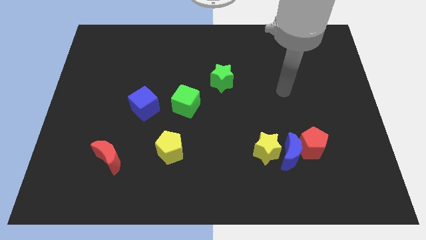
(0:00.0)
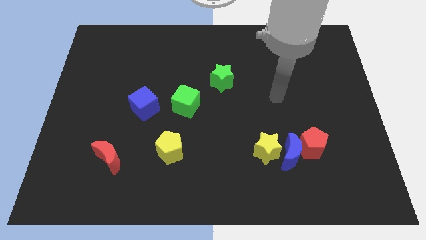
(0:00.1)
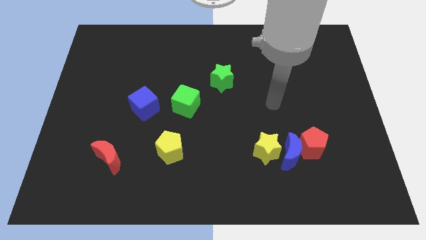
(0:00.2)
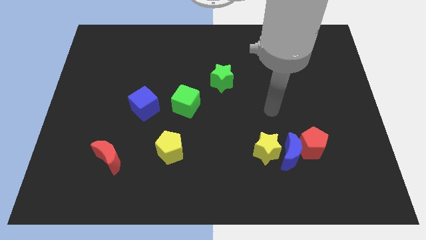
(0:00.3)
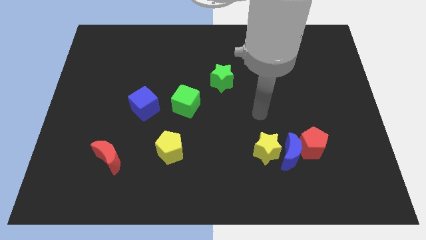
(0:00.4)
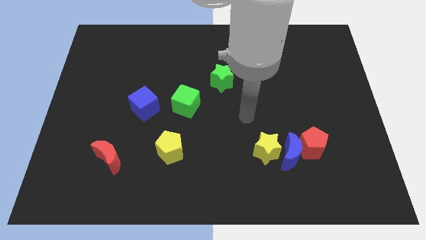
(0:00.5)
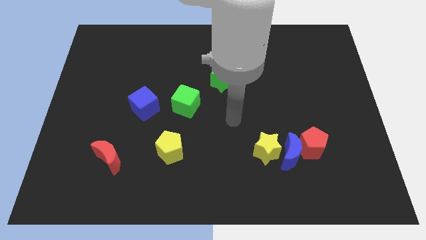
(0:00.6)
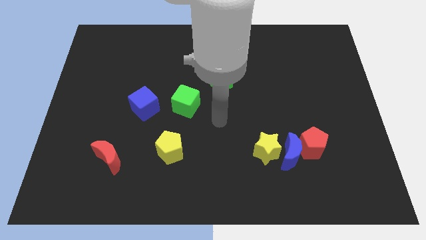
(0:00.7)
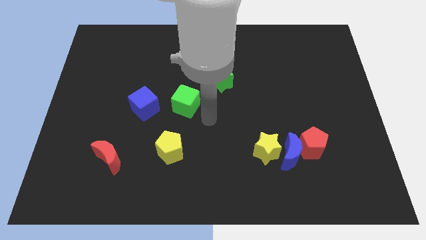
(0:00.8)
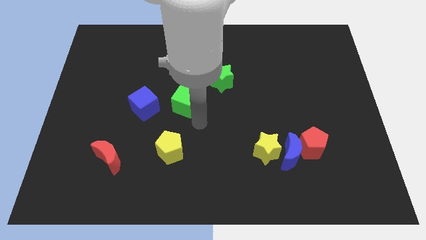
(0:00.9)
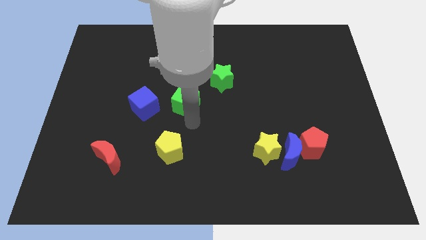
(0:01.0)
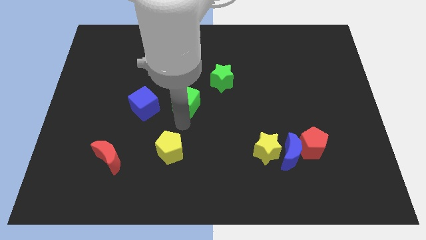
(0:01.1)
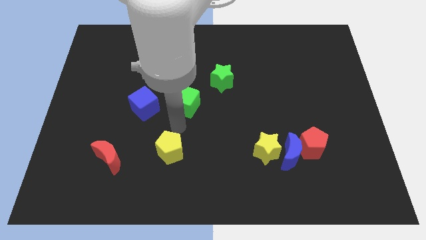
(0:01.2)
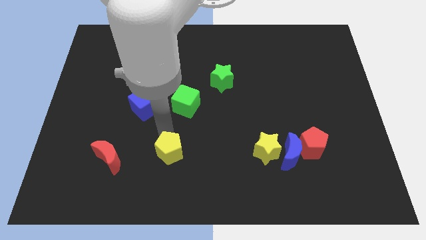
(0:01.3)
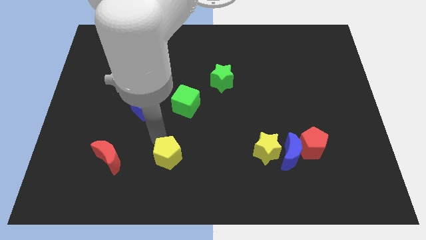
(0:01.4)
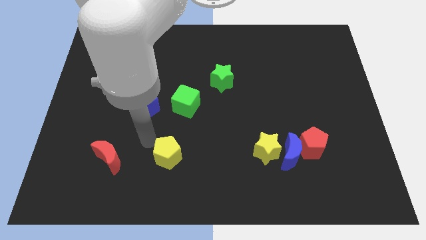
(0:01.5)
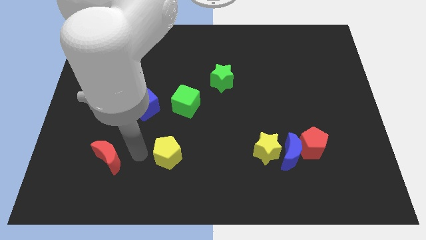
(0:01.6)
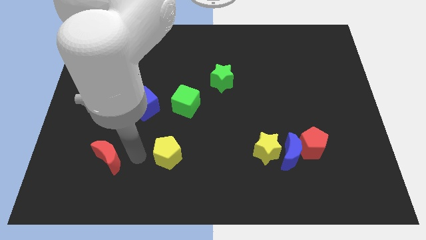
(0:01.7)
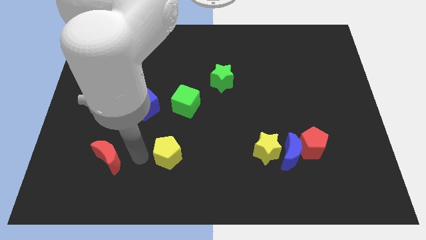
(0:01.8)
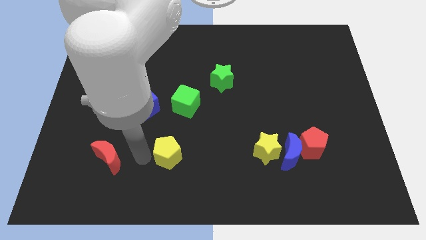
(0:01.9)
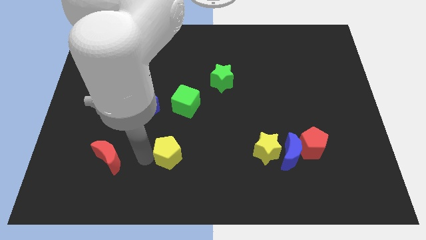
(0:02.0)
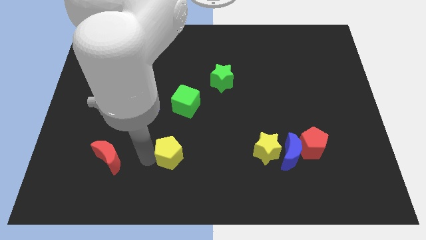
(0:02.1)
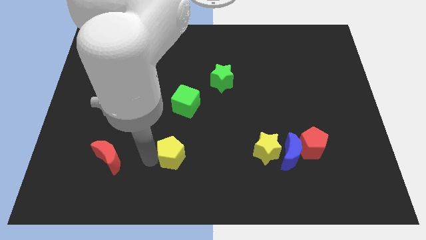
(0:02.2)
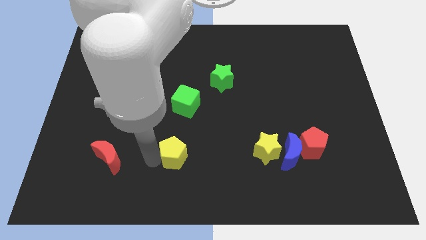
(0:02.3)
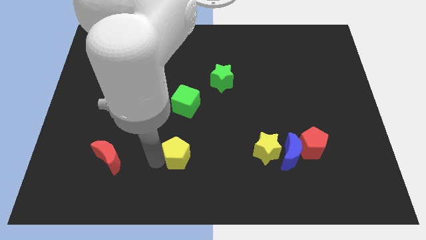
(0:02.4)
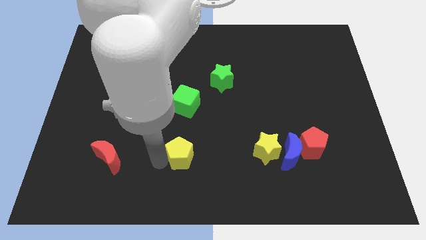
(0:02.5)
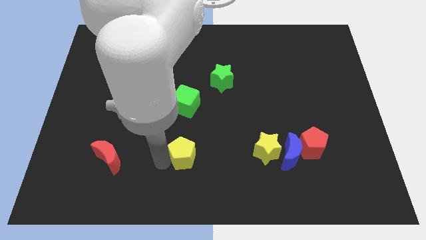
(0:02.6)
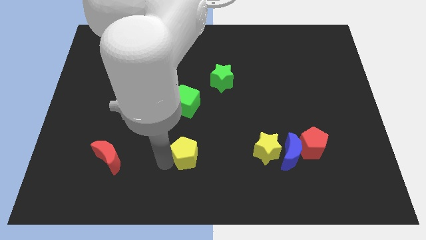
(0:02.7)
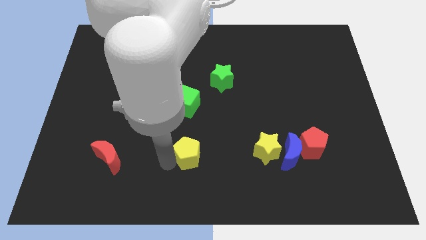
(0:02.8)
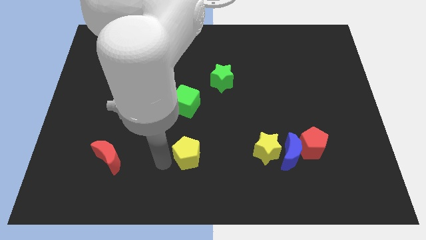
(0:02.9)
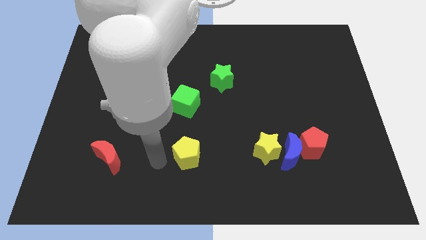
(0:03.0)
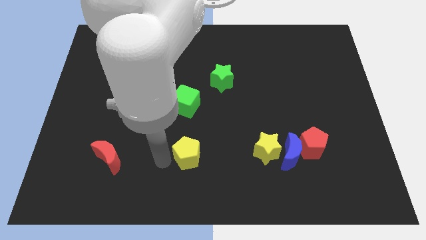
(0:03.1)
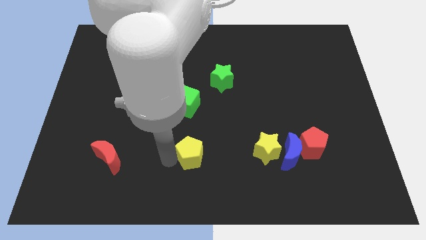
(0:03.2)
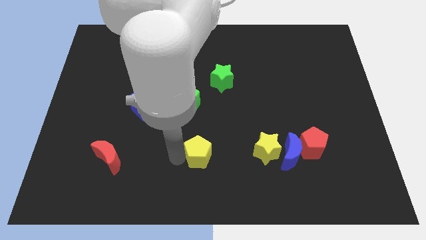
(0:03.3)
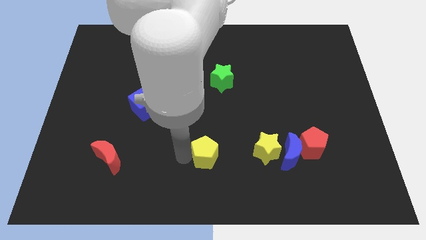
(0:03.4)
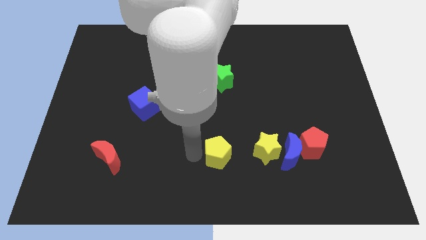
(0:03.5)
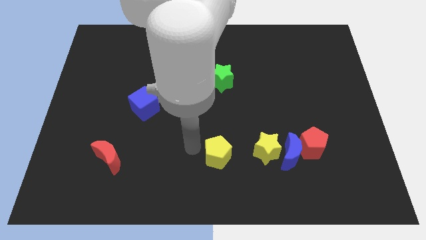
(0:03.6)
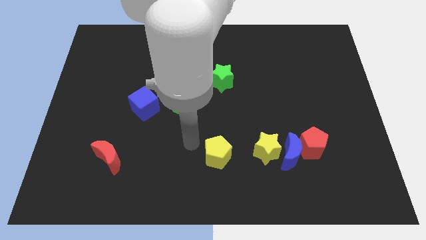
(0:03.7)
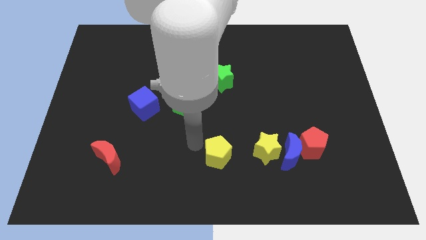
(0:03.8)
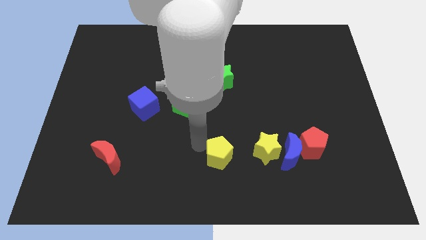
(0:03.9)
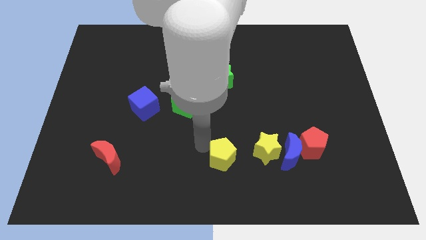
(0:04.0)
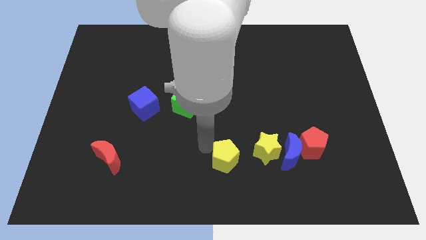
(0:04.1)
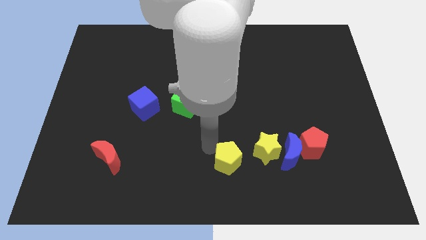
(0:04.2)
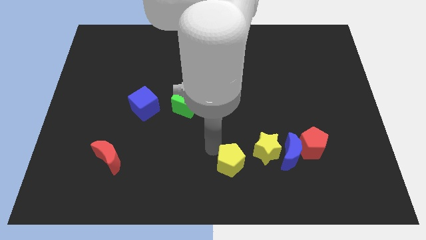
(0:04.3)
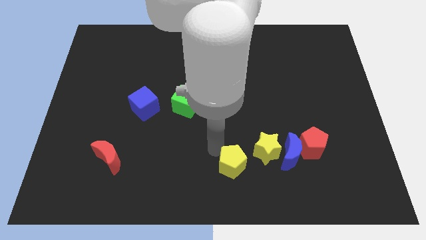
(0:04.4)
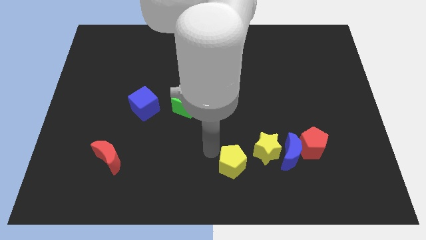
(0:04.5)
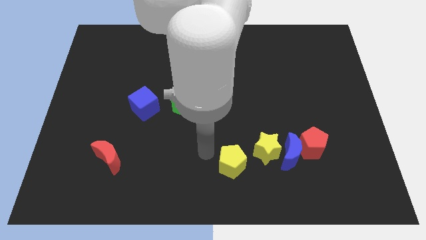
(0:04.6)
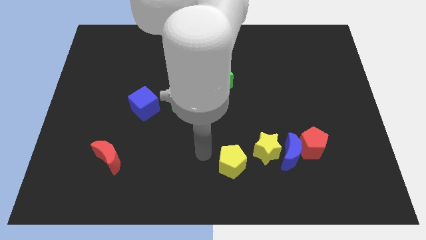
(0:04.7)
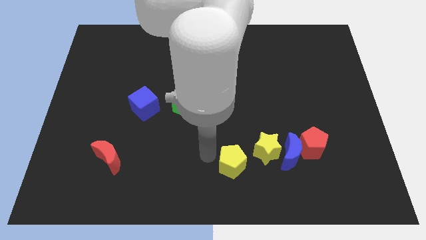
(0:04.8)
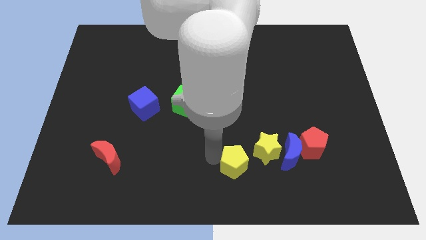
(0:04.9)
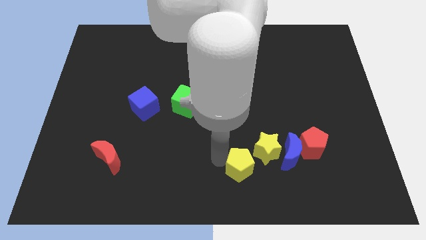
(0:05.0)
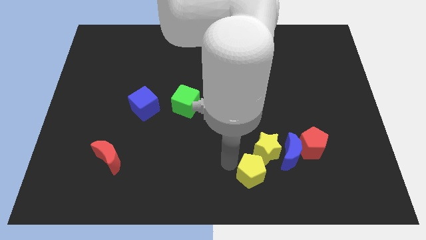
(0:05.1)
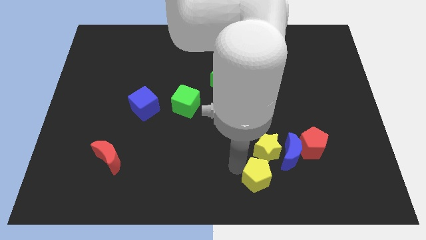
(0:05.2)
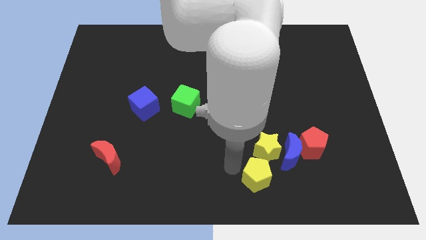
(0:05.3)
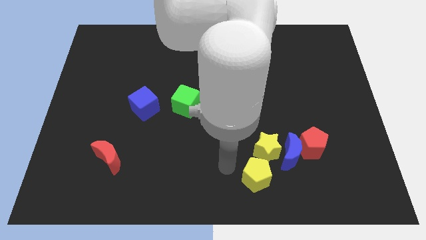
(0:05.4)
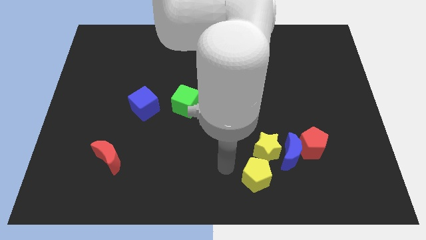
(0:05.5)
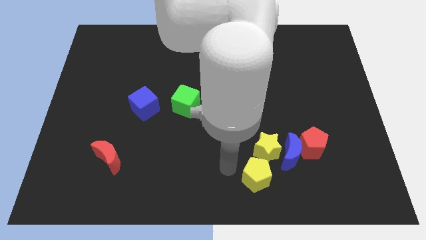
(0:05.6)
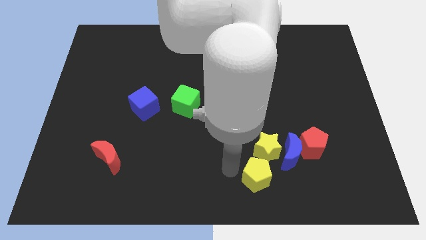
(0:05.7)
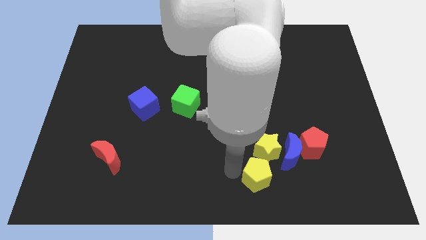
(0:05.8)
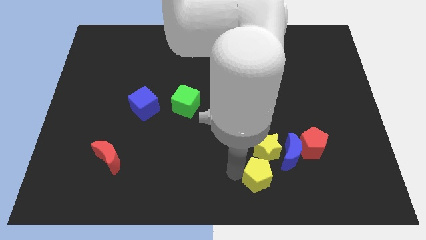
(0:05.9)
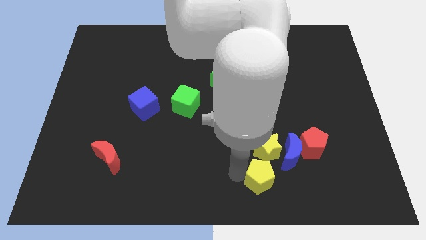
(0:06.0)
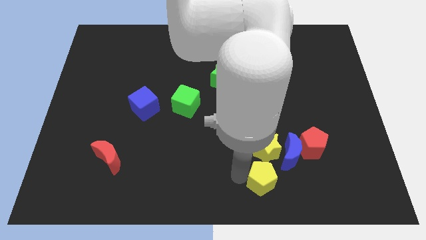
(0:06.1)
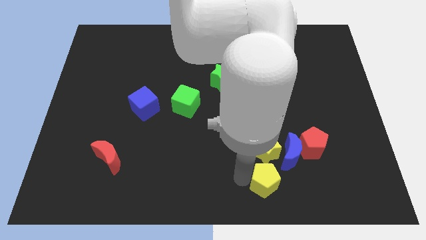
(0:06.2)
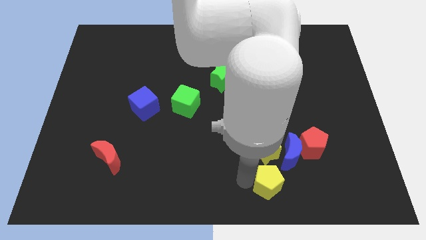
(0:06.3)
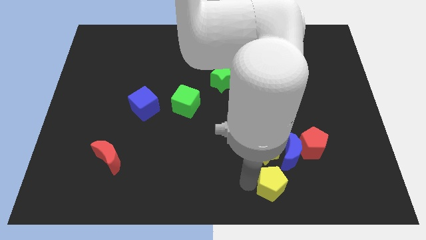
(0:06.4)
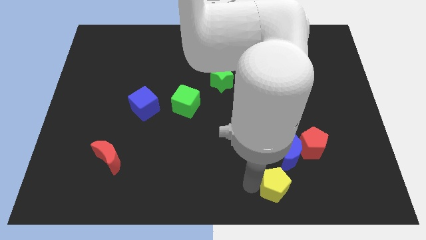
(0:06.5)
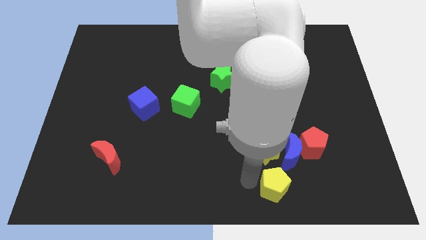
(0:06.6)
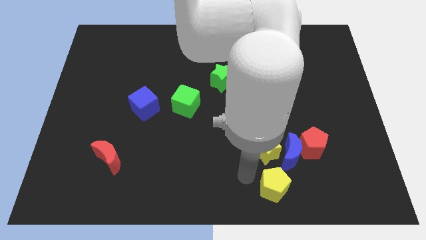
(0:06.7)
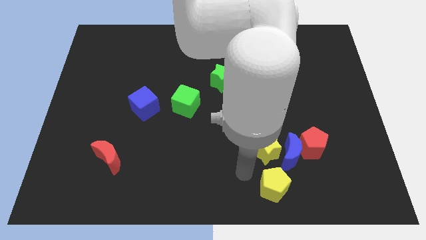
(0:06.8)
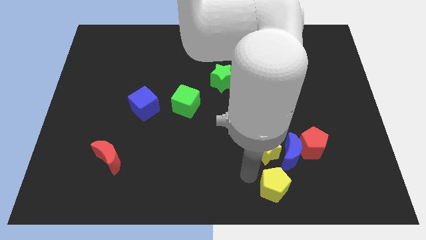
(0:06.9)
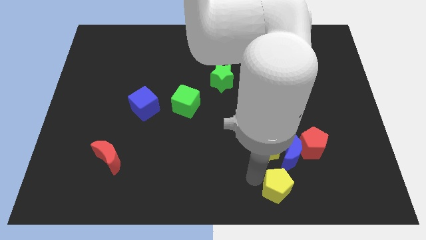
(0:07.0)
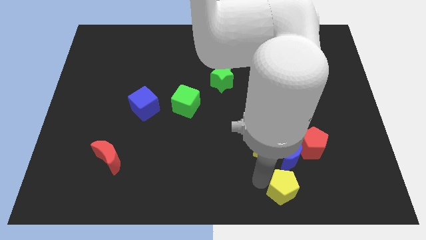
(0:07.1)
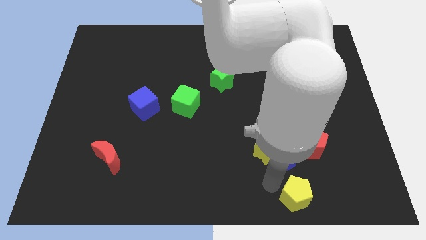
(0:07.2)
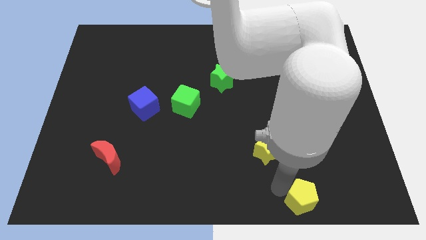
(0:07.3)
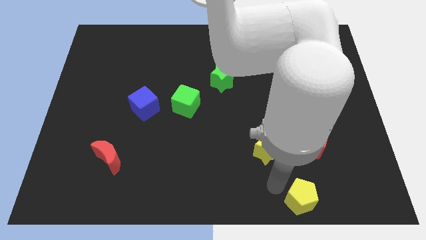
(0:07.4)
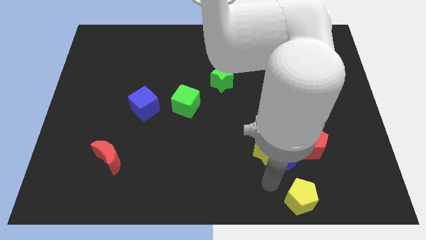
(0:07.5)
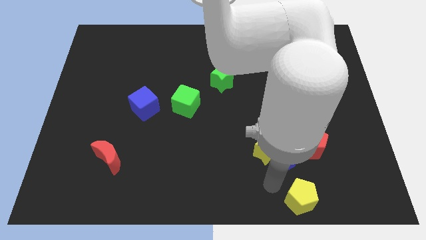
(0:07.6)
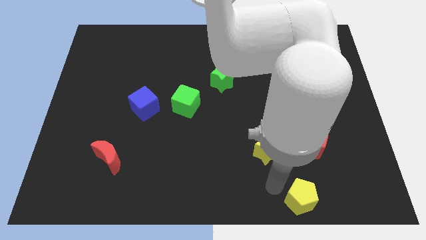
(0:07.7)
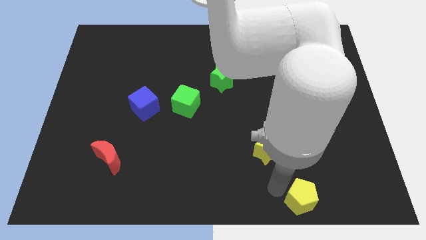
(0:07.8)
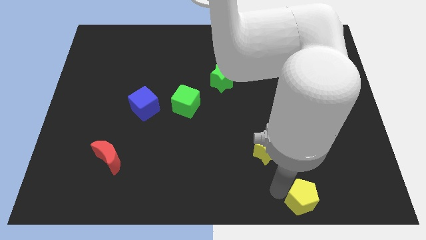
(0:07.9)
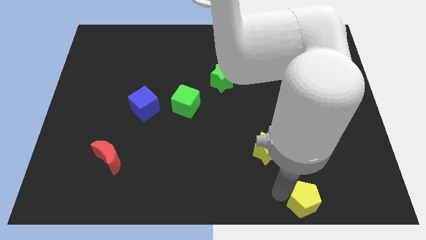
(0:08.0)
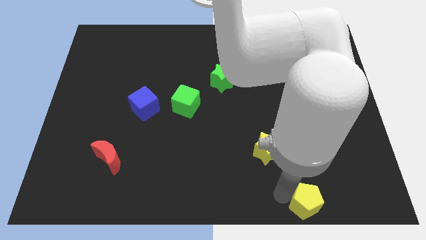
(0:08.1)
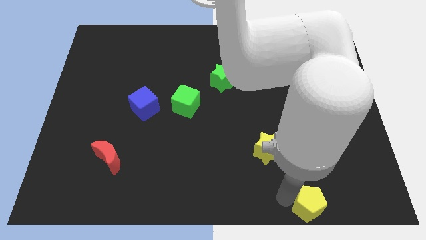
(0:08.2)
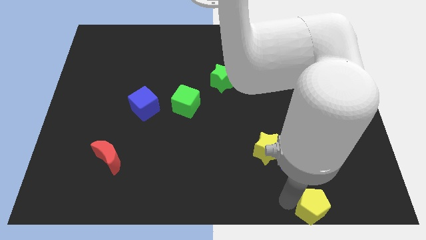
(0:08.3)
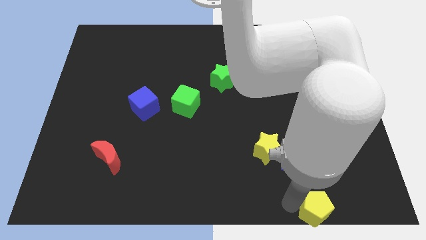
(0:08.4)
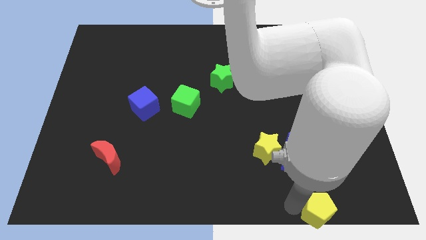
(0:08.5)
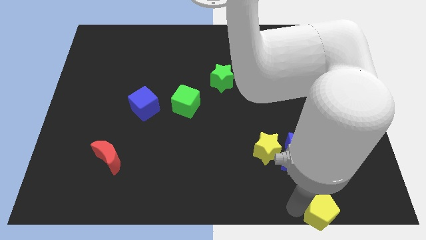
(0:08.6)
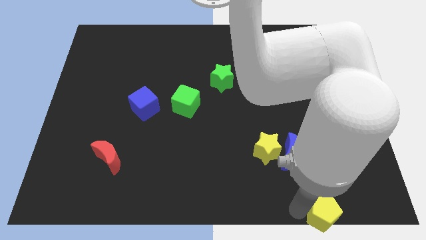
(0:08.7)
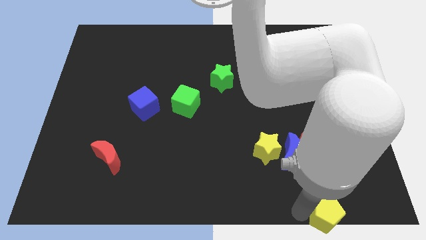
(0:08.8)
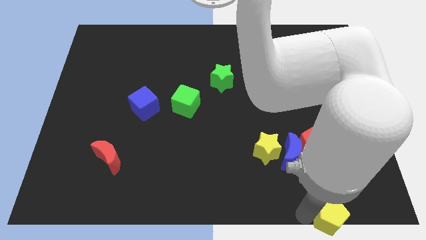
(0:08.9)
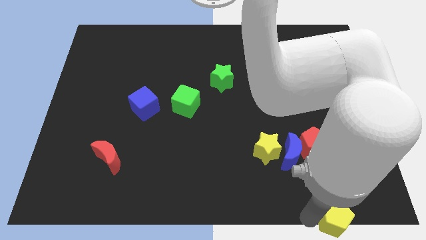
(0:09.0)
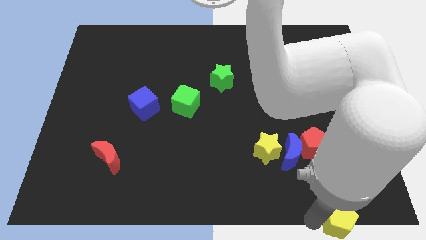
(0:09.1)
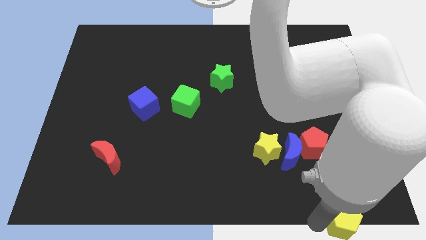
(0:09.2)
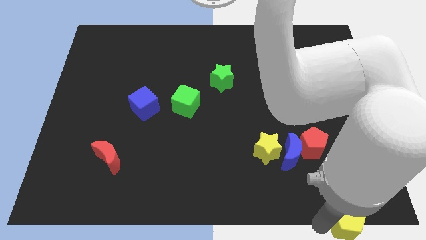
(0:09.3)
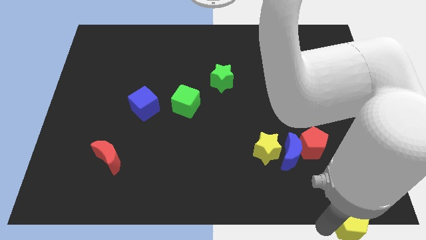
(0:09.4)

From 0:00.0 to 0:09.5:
slide the yellow pentagon to the lower right corner
